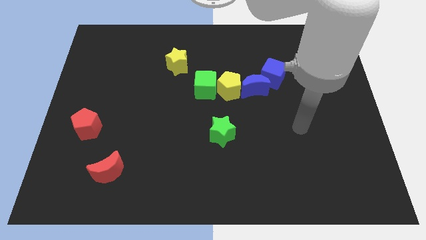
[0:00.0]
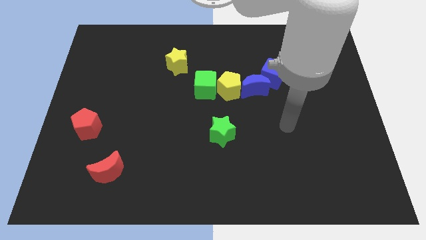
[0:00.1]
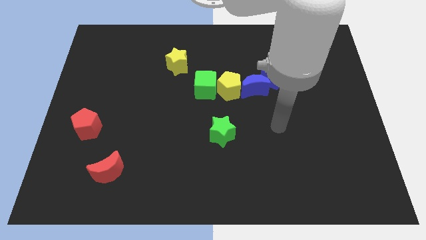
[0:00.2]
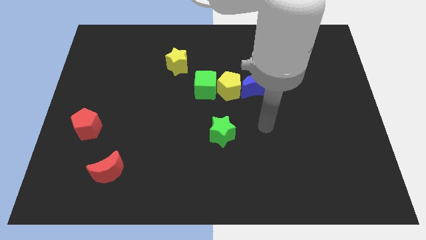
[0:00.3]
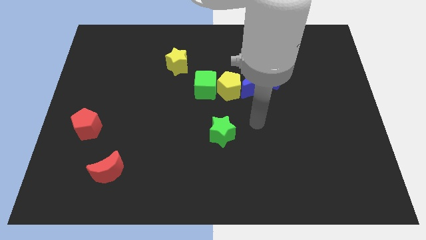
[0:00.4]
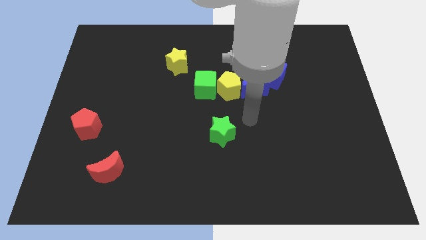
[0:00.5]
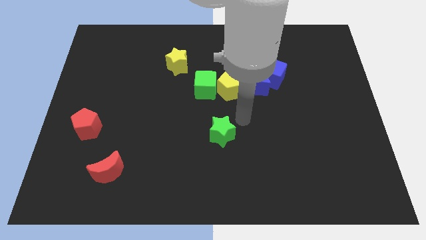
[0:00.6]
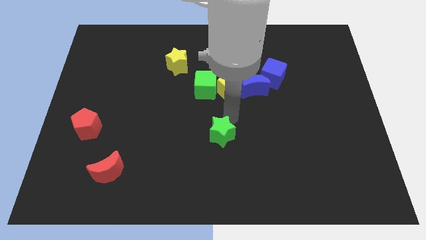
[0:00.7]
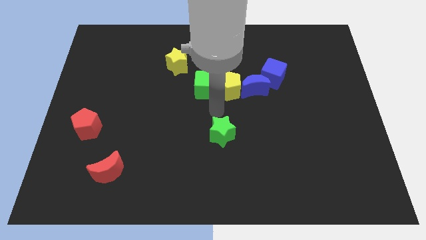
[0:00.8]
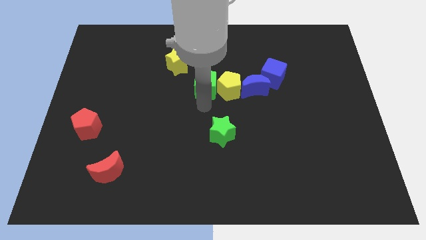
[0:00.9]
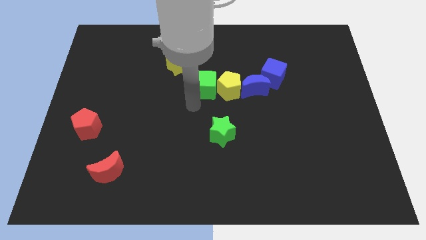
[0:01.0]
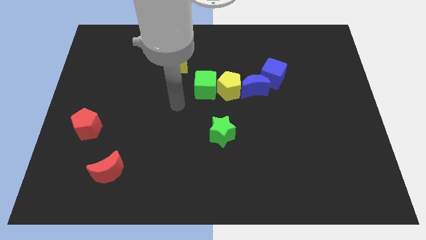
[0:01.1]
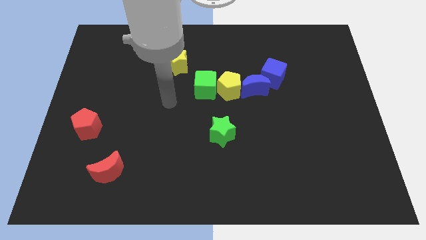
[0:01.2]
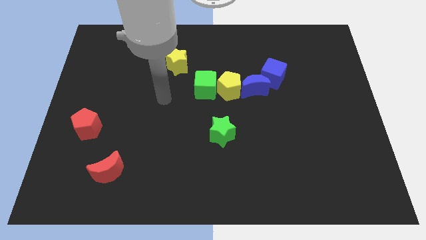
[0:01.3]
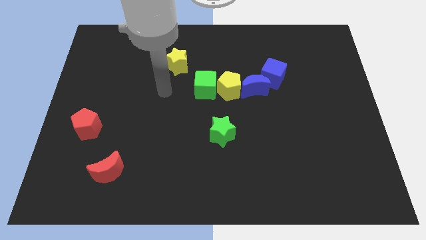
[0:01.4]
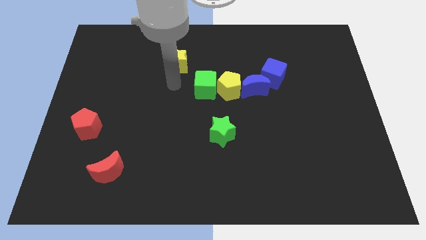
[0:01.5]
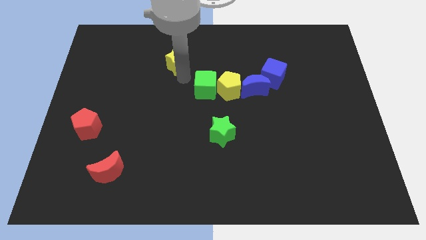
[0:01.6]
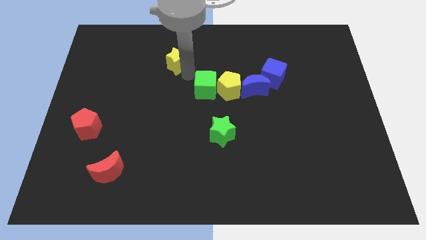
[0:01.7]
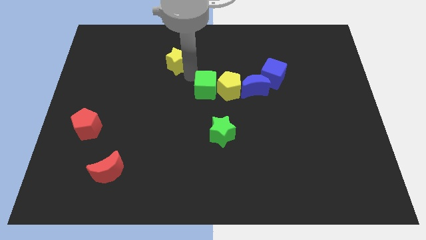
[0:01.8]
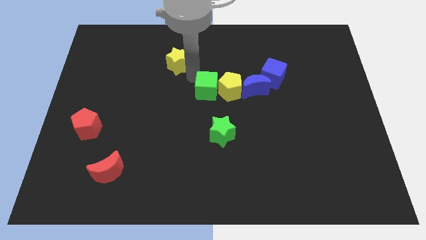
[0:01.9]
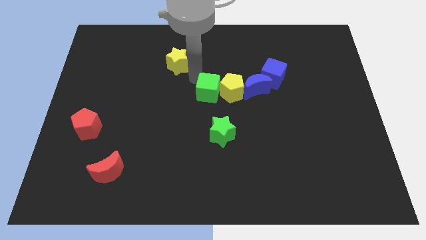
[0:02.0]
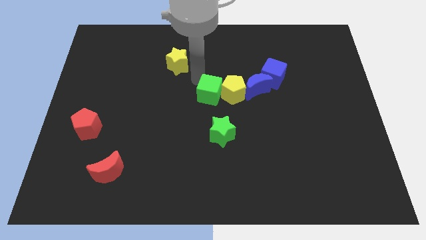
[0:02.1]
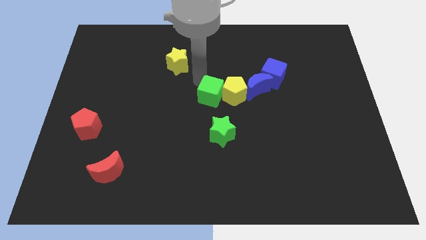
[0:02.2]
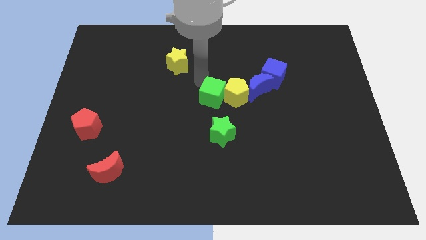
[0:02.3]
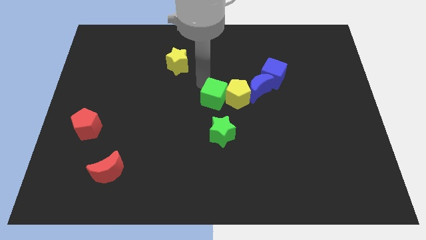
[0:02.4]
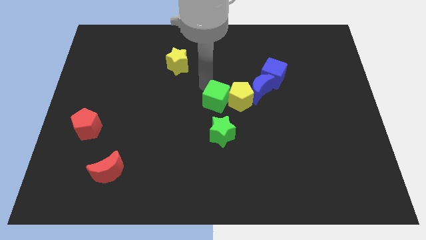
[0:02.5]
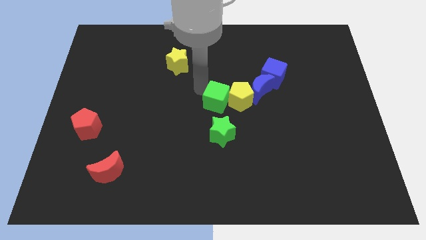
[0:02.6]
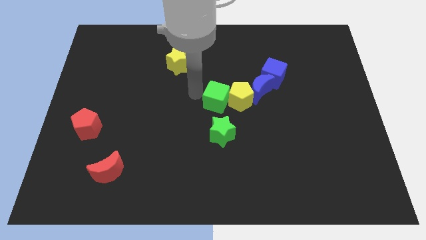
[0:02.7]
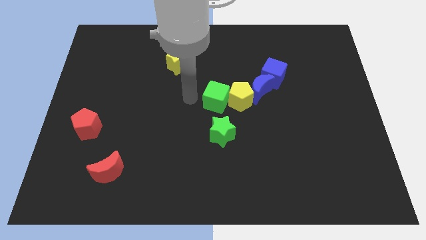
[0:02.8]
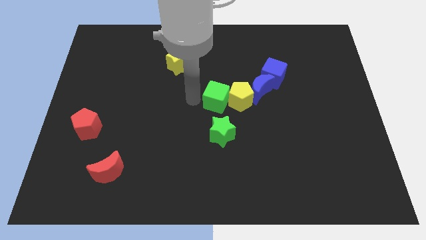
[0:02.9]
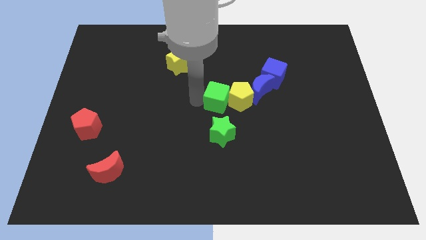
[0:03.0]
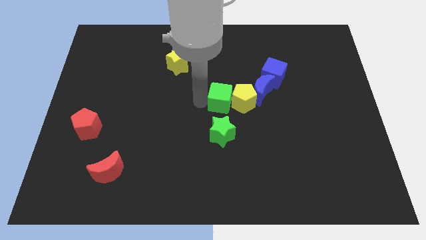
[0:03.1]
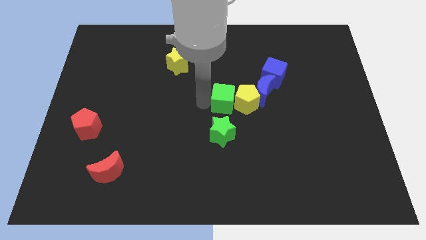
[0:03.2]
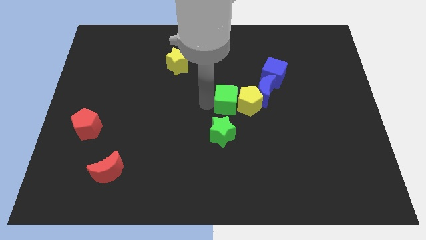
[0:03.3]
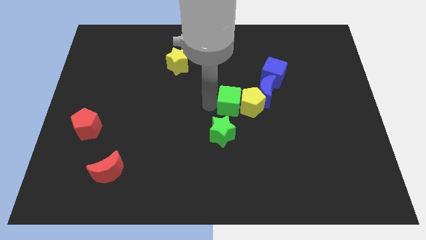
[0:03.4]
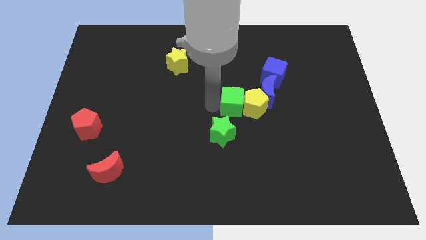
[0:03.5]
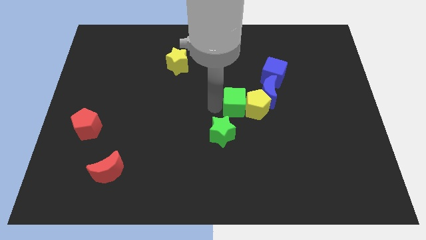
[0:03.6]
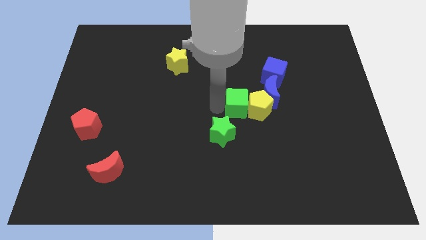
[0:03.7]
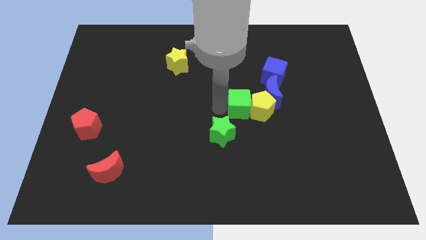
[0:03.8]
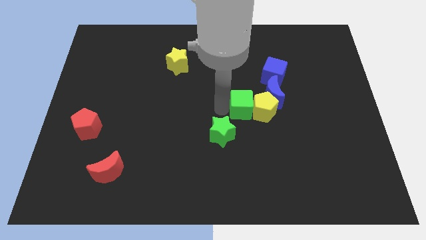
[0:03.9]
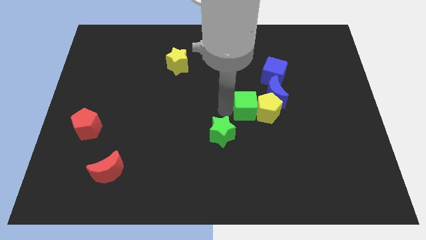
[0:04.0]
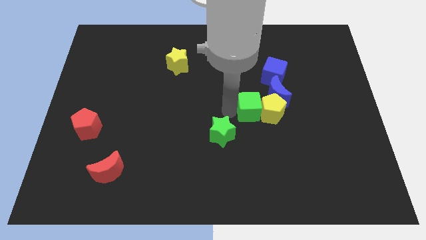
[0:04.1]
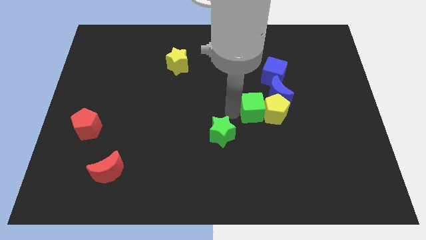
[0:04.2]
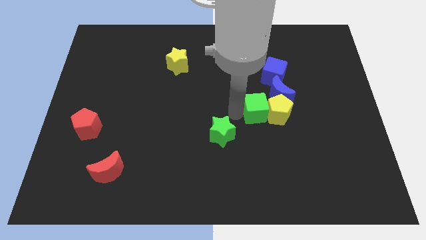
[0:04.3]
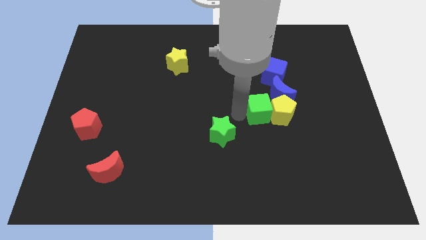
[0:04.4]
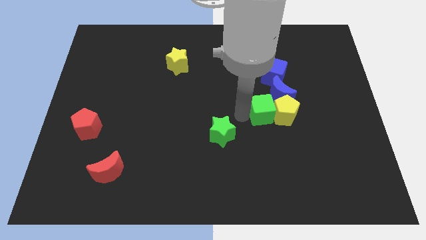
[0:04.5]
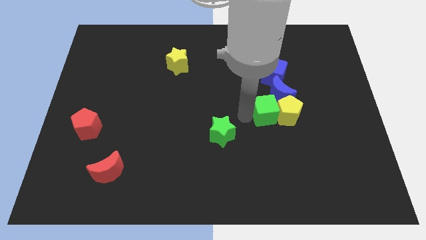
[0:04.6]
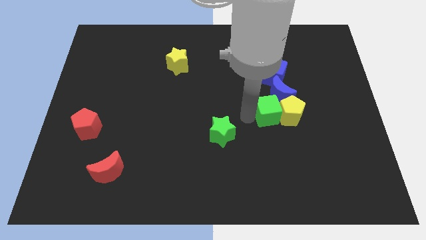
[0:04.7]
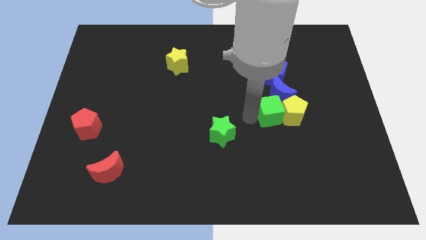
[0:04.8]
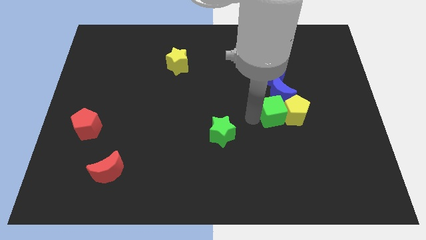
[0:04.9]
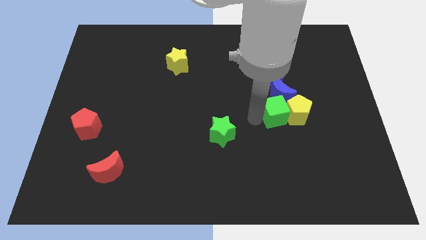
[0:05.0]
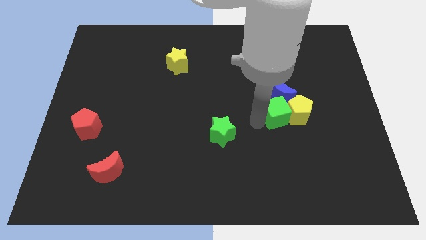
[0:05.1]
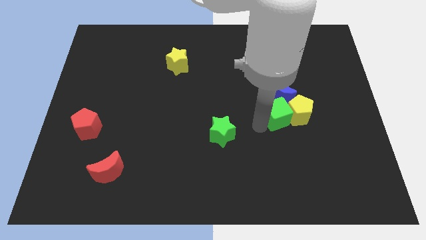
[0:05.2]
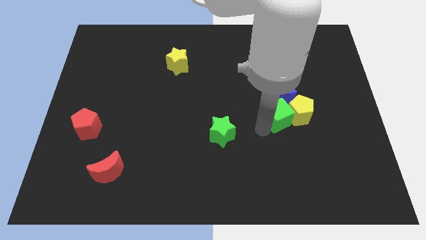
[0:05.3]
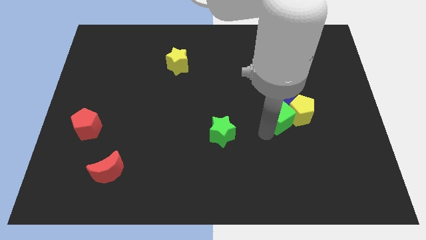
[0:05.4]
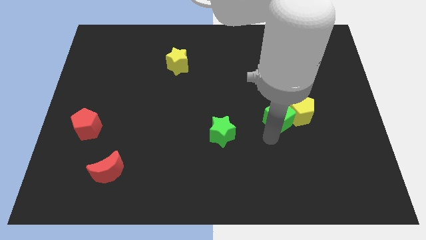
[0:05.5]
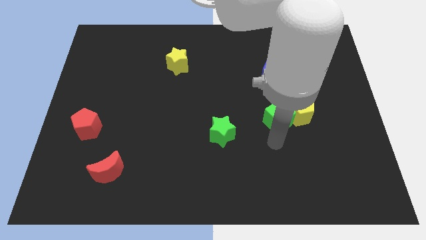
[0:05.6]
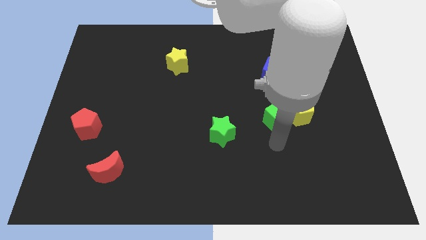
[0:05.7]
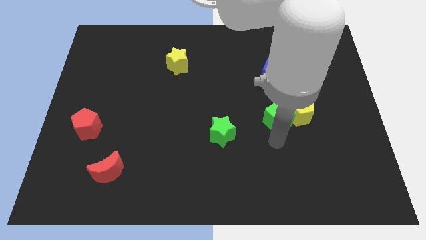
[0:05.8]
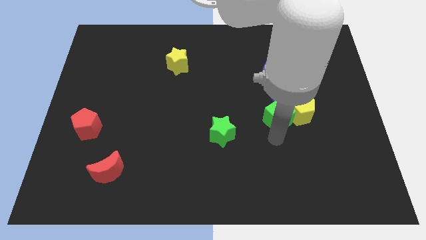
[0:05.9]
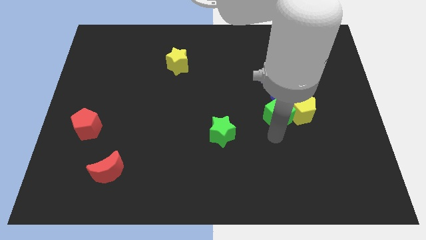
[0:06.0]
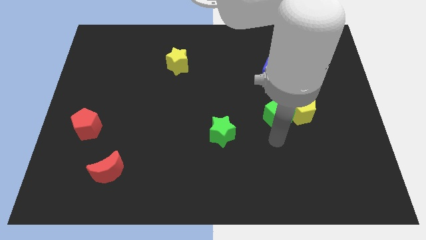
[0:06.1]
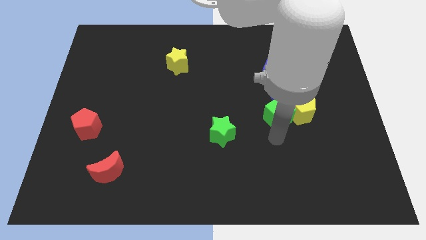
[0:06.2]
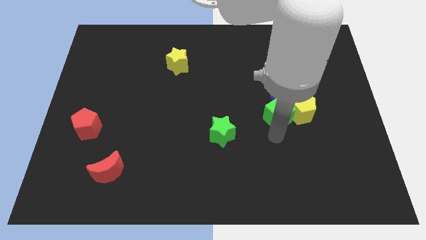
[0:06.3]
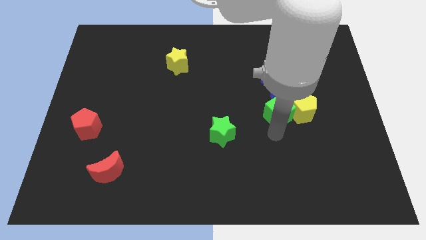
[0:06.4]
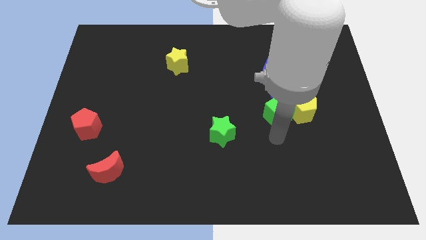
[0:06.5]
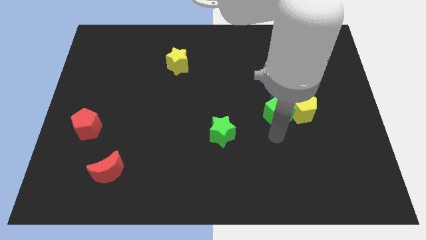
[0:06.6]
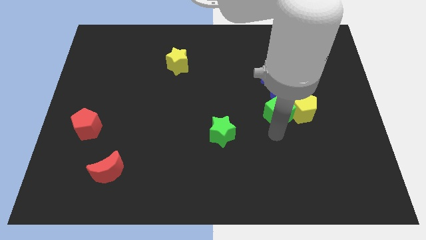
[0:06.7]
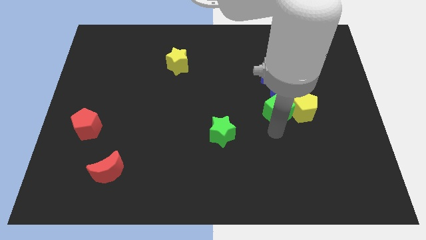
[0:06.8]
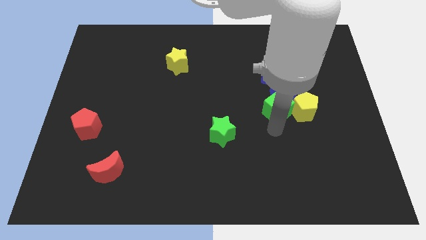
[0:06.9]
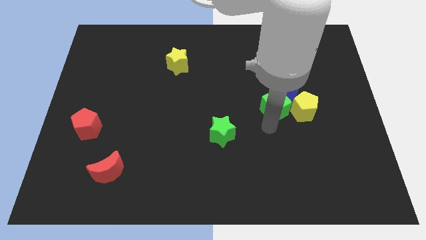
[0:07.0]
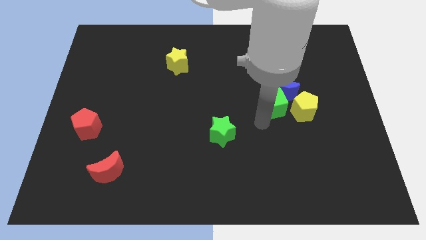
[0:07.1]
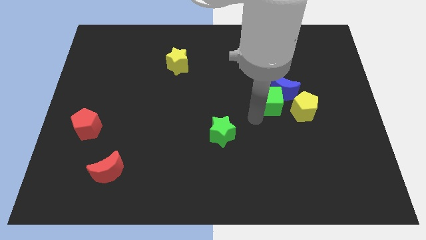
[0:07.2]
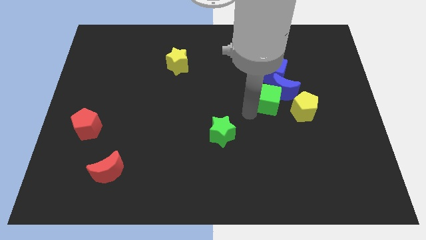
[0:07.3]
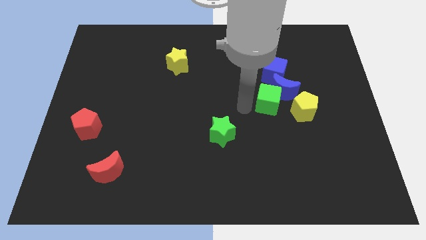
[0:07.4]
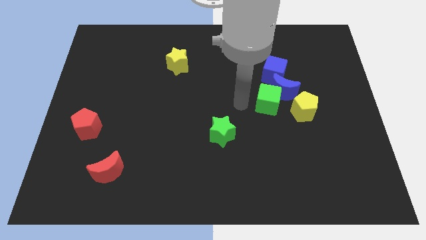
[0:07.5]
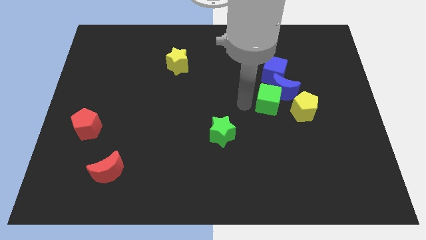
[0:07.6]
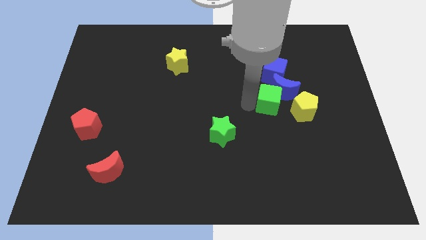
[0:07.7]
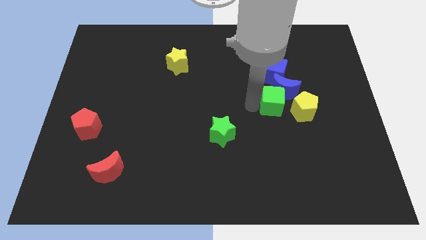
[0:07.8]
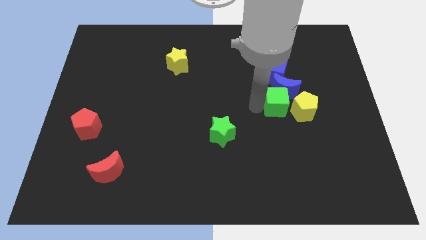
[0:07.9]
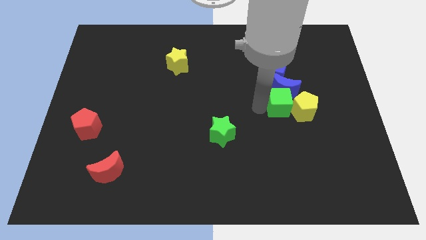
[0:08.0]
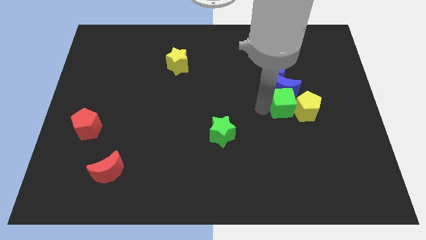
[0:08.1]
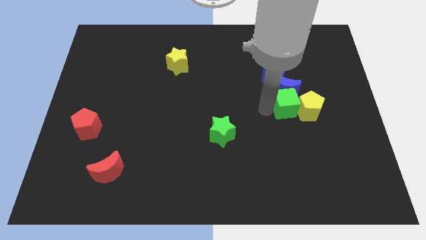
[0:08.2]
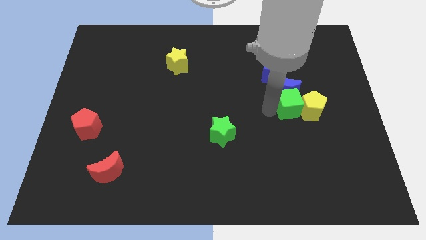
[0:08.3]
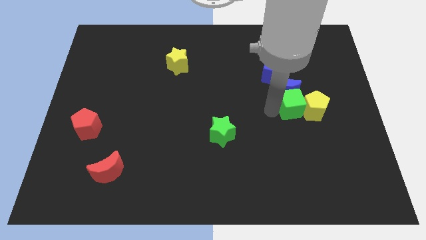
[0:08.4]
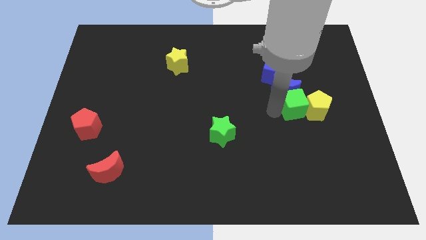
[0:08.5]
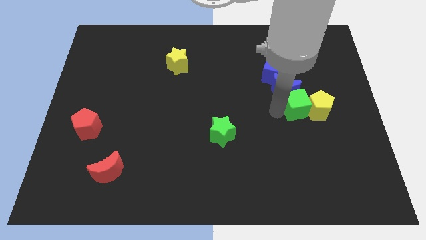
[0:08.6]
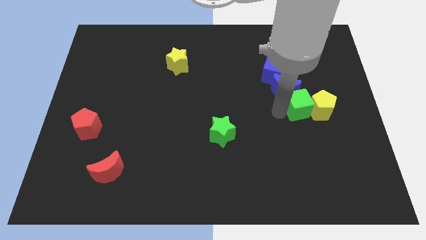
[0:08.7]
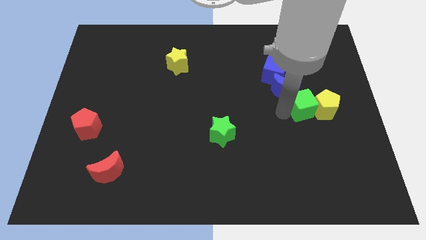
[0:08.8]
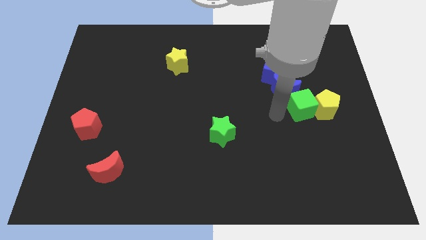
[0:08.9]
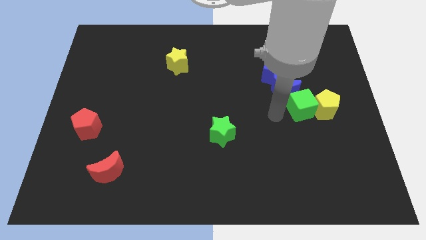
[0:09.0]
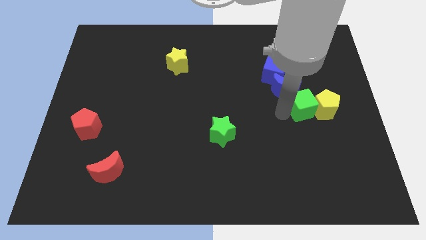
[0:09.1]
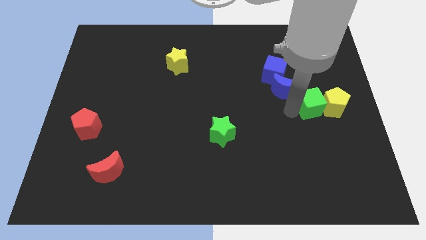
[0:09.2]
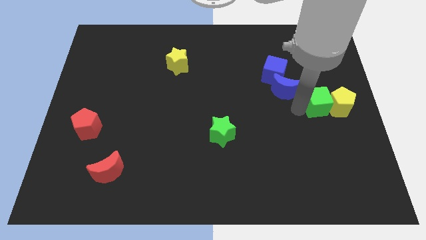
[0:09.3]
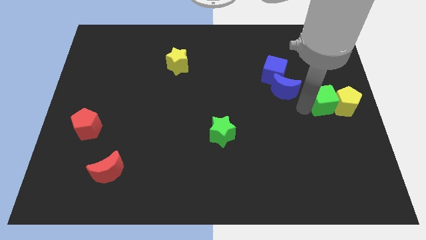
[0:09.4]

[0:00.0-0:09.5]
push the green cube to the right side
